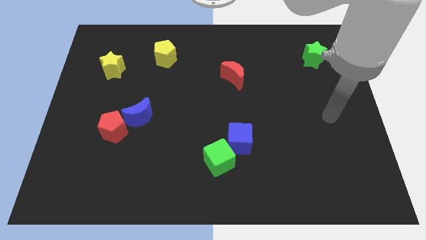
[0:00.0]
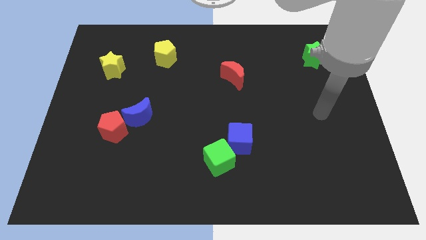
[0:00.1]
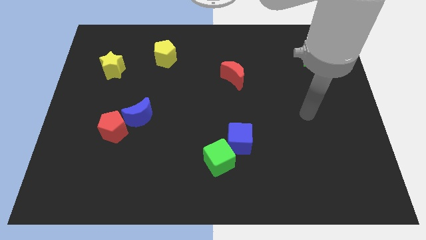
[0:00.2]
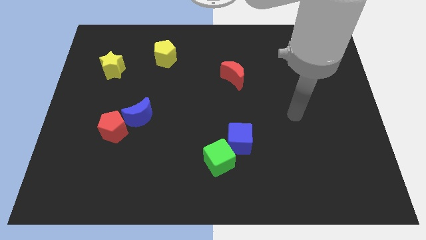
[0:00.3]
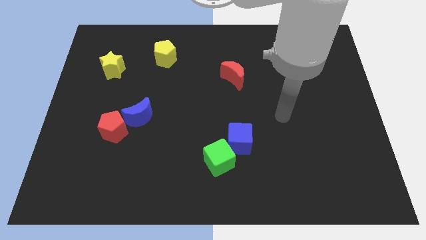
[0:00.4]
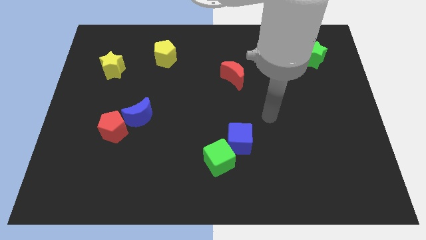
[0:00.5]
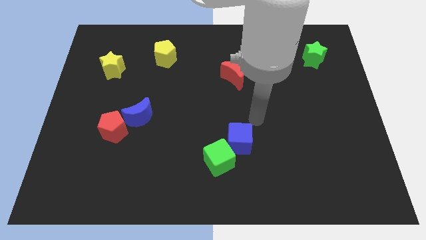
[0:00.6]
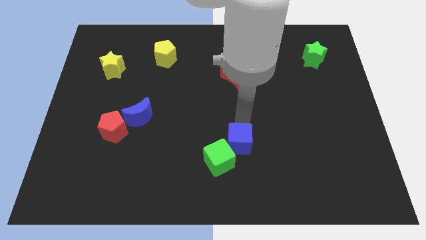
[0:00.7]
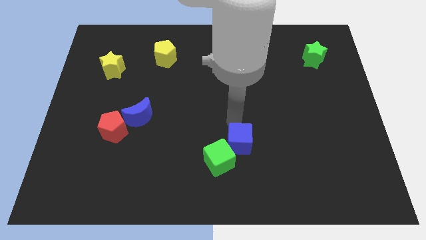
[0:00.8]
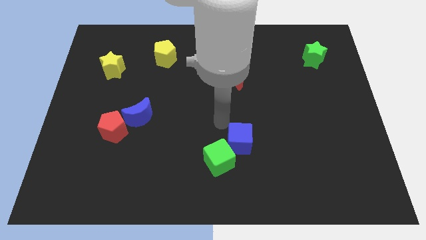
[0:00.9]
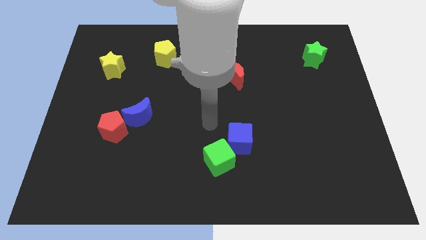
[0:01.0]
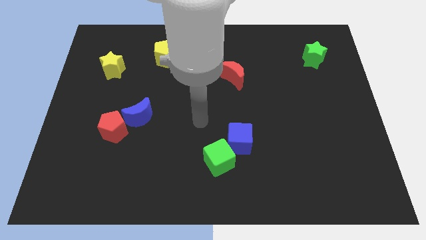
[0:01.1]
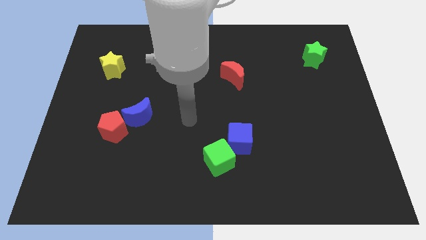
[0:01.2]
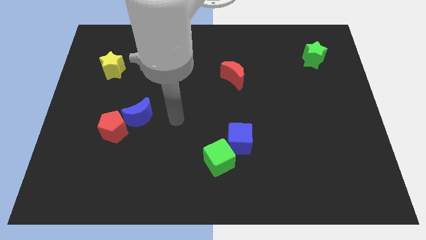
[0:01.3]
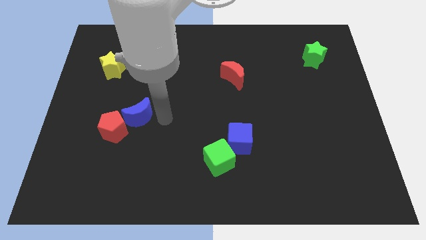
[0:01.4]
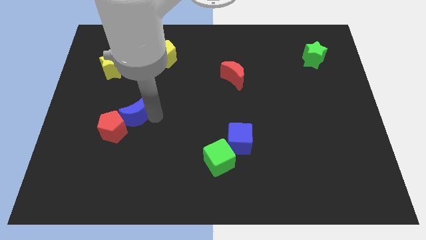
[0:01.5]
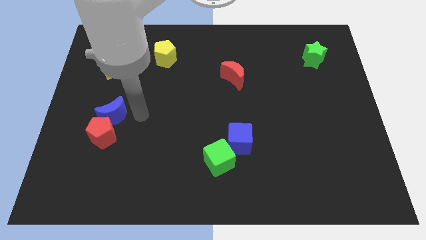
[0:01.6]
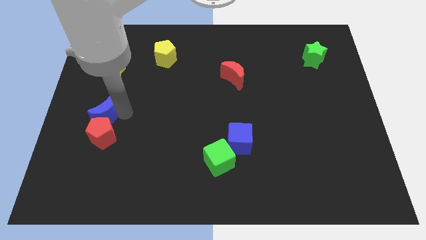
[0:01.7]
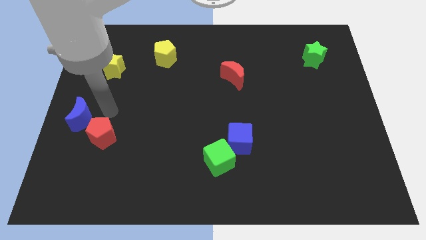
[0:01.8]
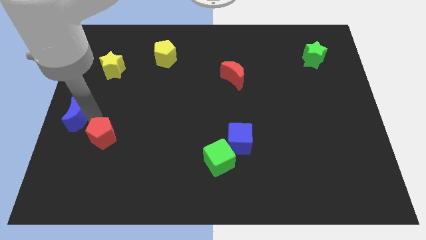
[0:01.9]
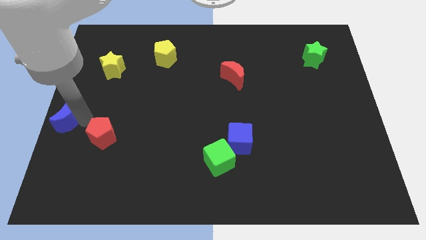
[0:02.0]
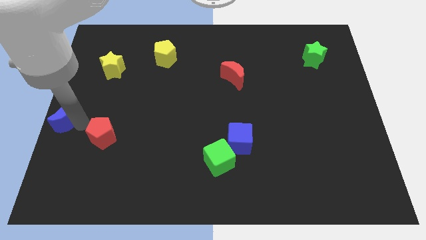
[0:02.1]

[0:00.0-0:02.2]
move the red pentagon away from the blue moon

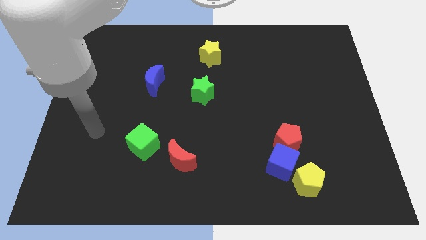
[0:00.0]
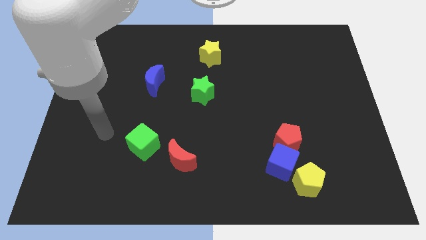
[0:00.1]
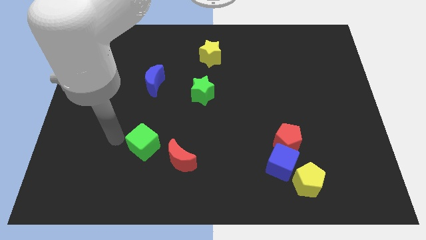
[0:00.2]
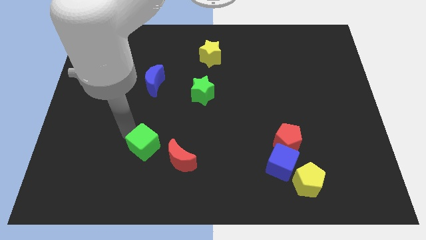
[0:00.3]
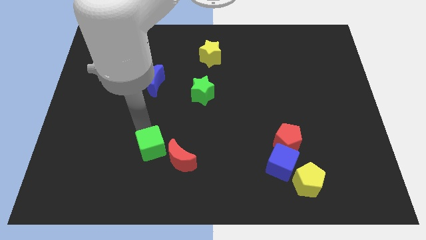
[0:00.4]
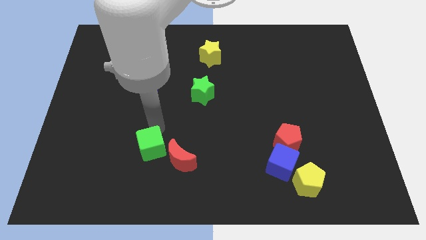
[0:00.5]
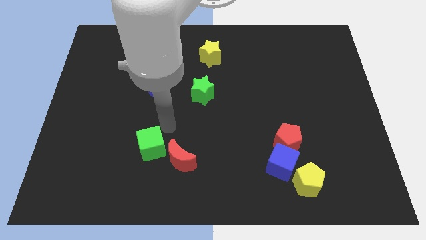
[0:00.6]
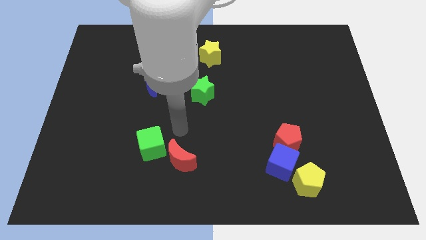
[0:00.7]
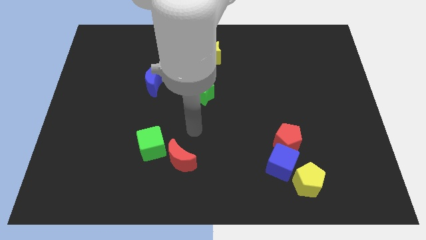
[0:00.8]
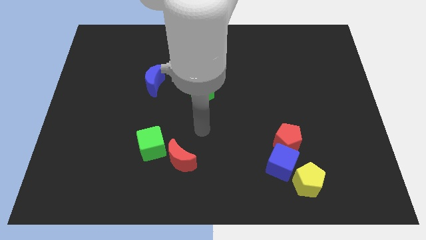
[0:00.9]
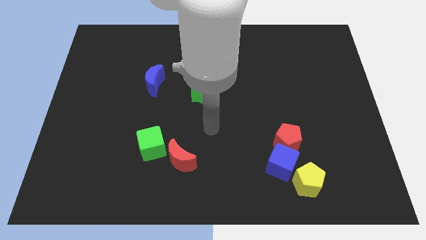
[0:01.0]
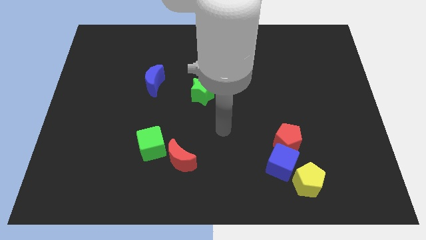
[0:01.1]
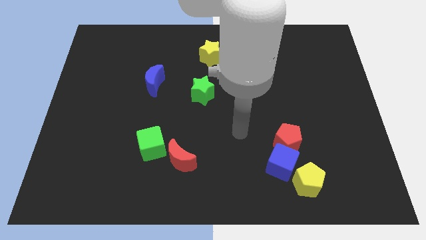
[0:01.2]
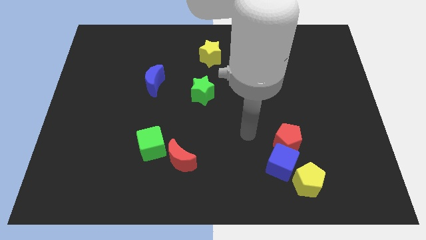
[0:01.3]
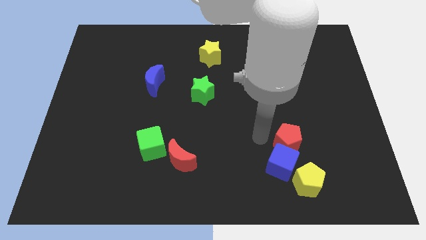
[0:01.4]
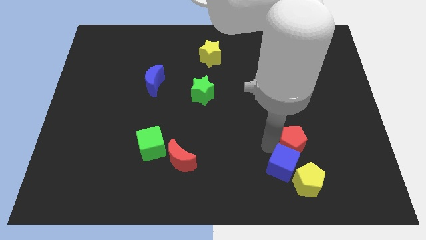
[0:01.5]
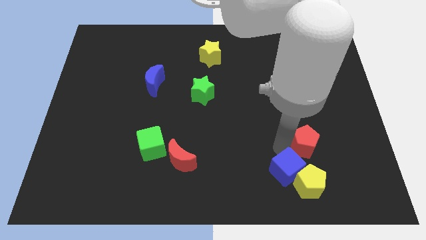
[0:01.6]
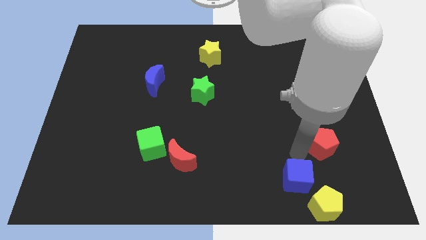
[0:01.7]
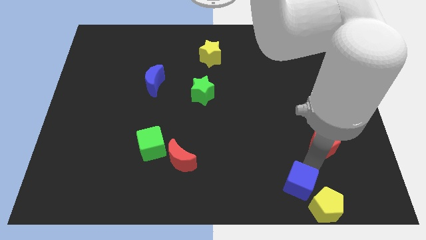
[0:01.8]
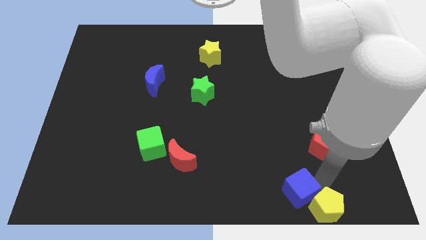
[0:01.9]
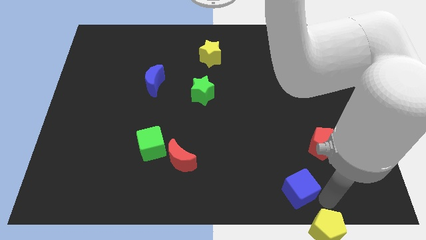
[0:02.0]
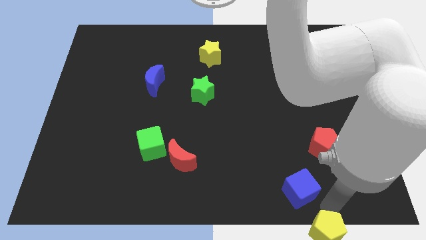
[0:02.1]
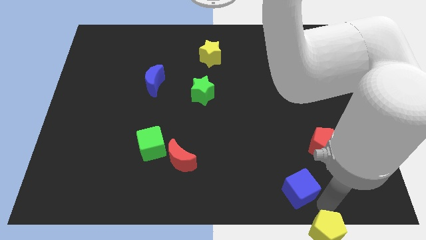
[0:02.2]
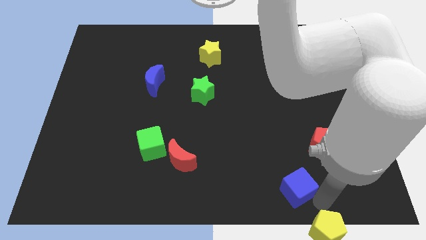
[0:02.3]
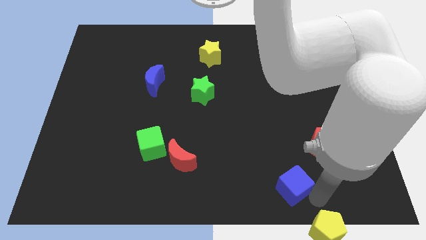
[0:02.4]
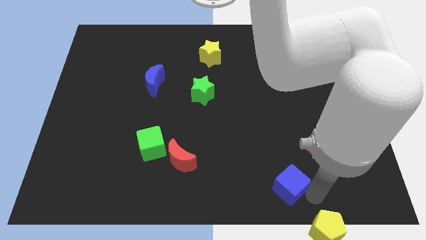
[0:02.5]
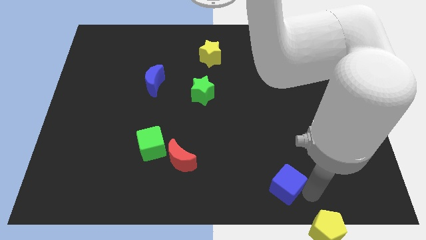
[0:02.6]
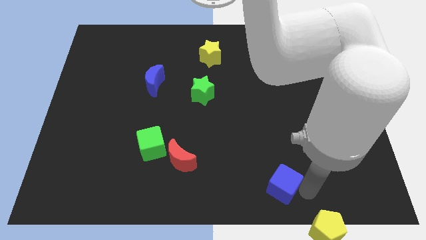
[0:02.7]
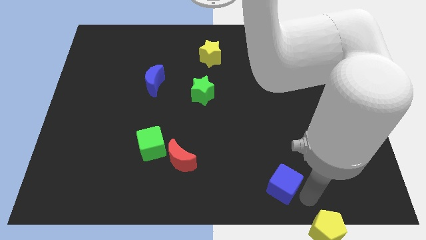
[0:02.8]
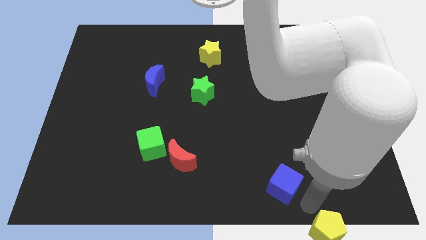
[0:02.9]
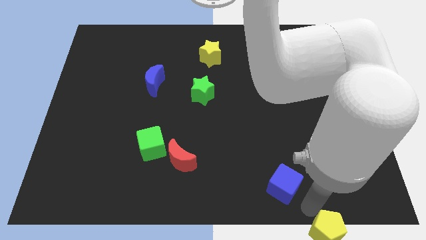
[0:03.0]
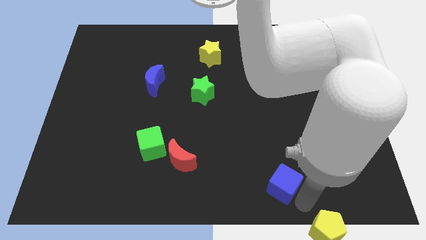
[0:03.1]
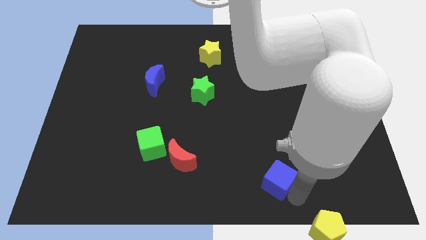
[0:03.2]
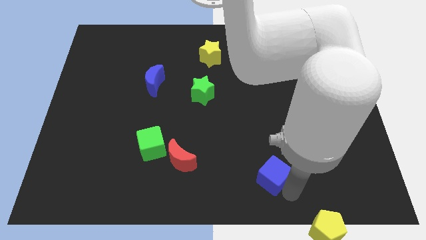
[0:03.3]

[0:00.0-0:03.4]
pull the blue cube apart from the red pentagon and yellow pentagon

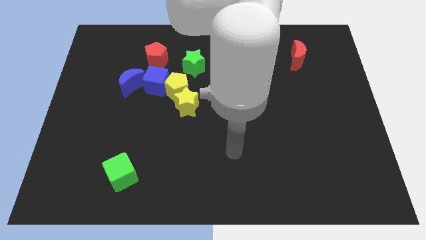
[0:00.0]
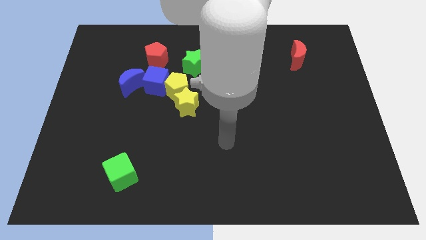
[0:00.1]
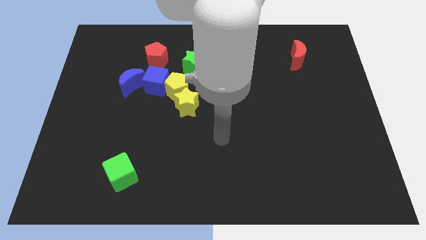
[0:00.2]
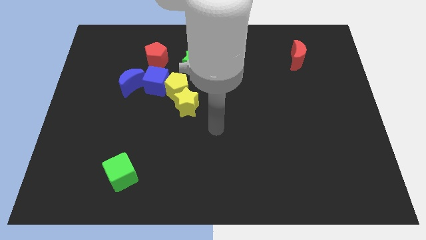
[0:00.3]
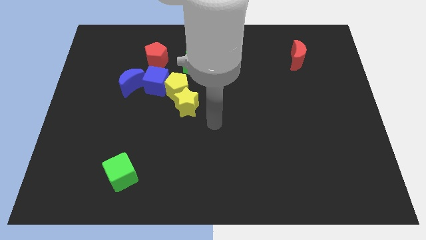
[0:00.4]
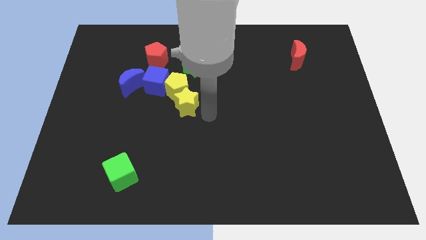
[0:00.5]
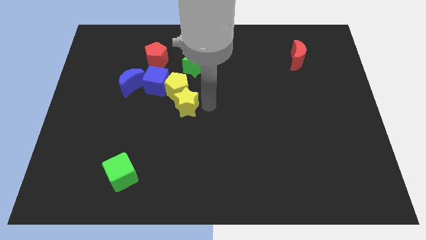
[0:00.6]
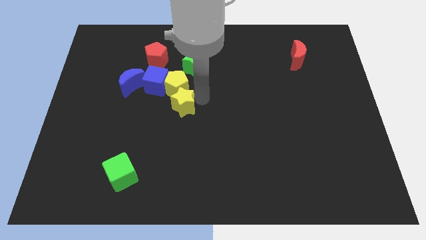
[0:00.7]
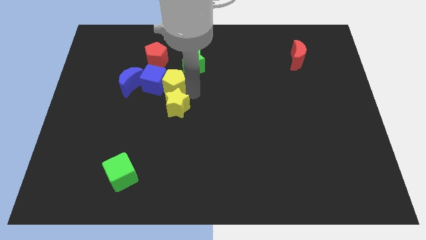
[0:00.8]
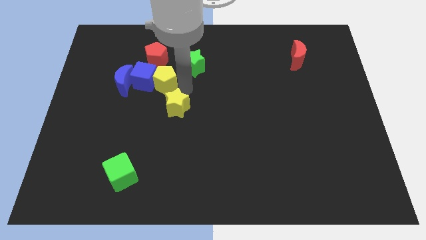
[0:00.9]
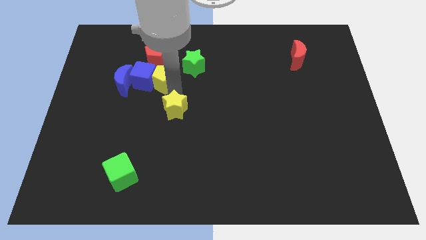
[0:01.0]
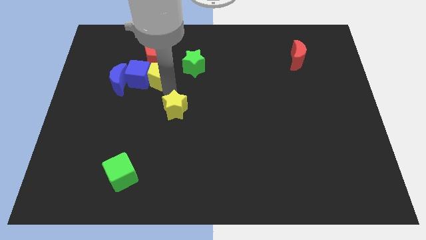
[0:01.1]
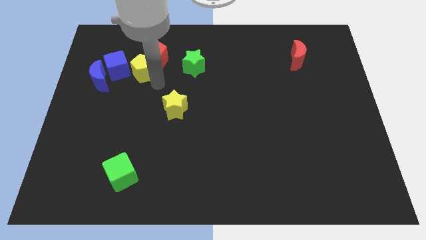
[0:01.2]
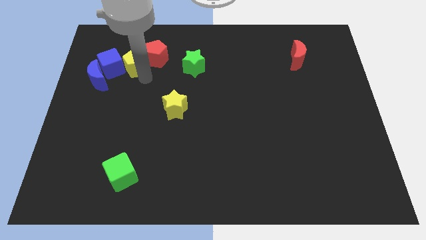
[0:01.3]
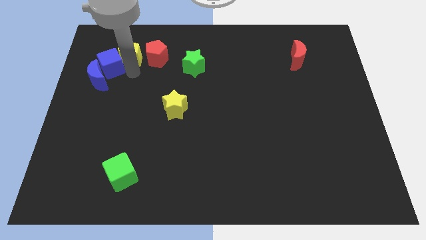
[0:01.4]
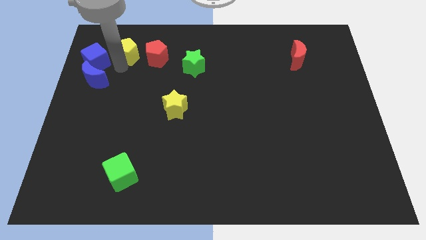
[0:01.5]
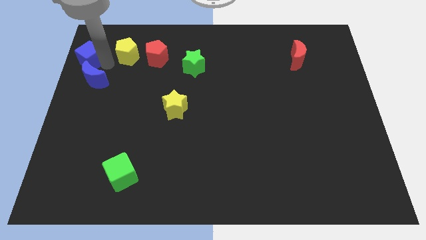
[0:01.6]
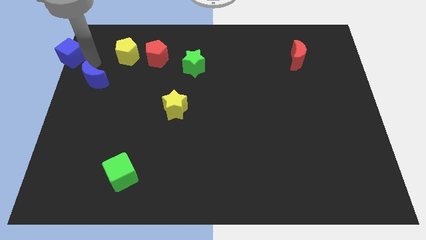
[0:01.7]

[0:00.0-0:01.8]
separate the blue moon from the blue cube

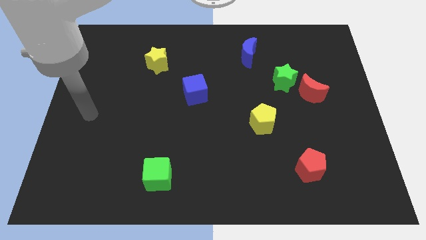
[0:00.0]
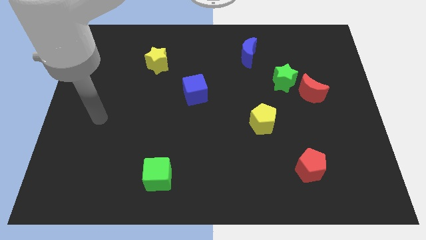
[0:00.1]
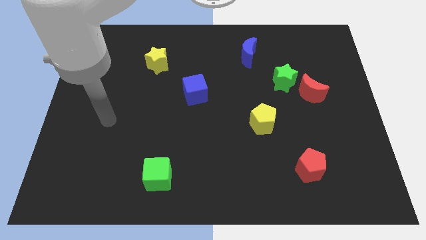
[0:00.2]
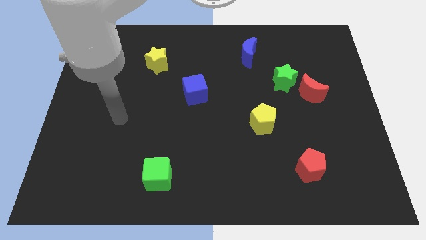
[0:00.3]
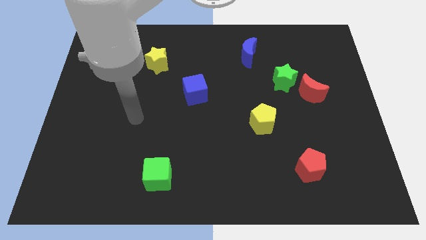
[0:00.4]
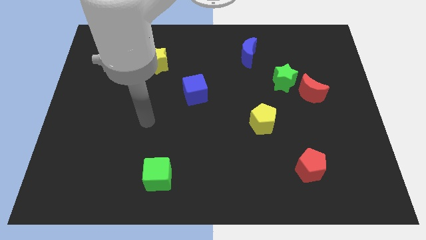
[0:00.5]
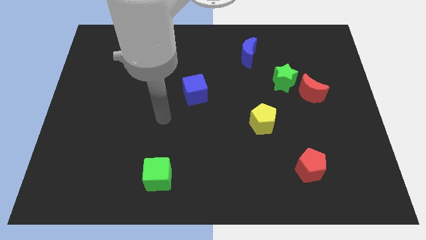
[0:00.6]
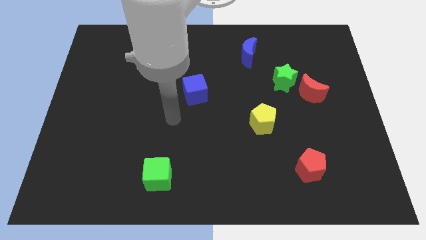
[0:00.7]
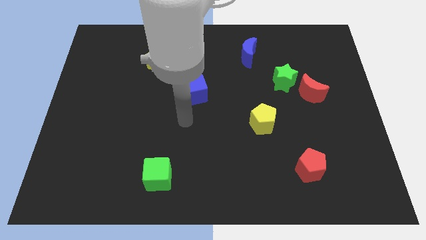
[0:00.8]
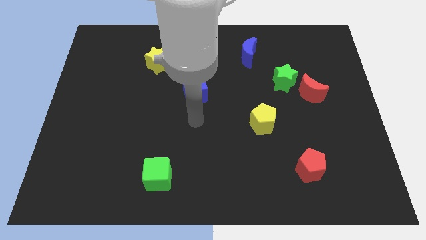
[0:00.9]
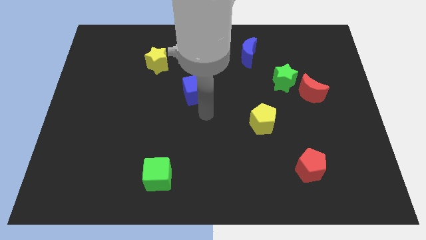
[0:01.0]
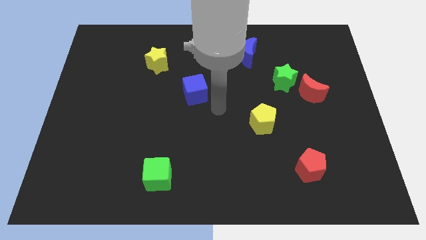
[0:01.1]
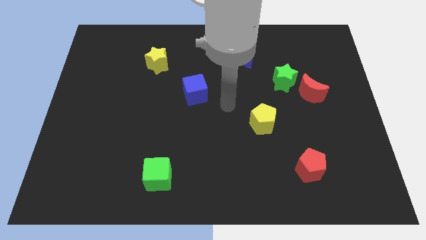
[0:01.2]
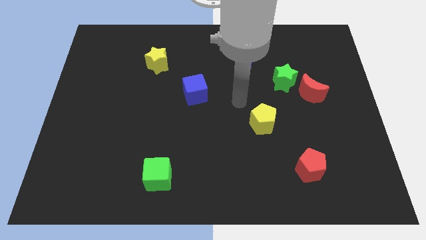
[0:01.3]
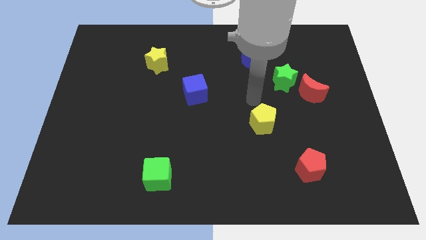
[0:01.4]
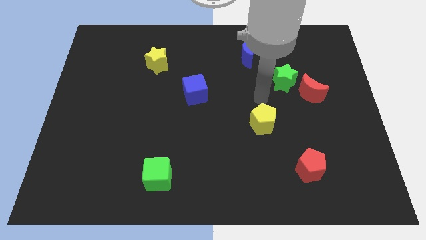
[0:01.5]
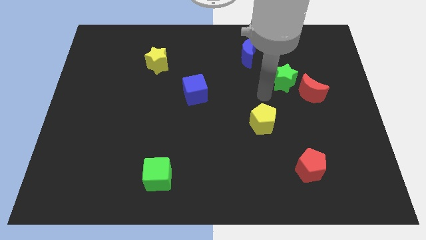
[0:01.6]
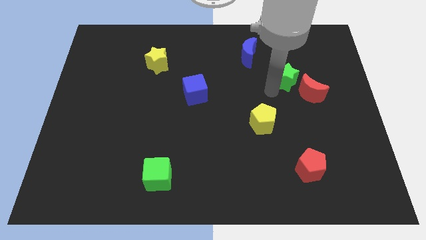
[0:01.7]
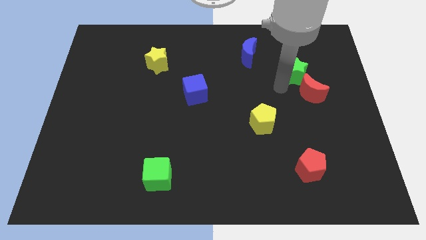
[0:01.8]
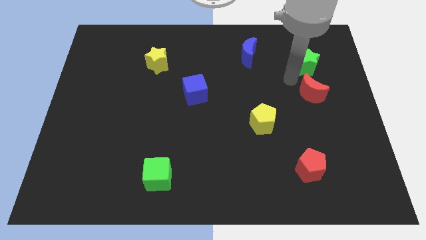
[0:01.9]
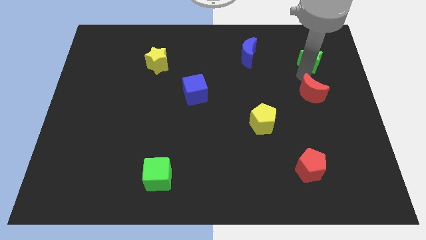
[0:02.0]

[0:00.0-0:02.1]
separate the red moon from the green star
